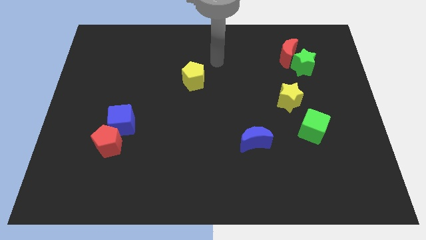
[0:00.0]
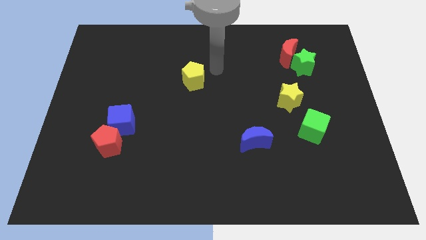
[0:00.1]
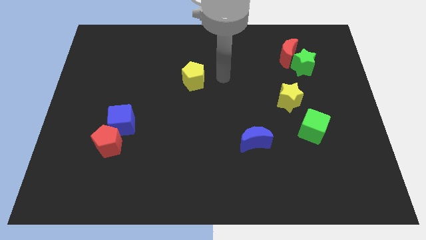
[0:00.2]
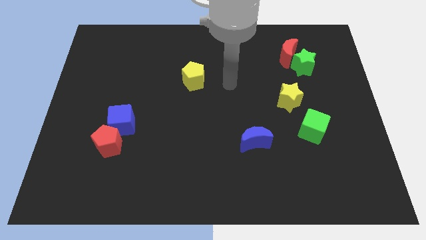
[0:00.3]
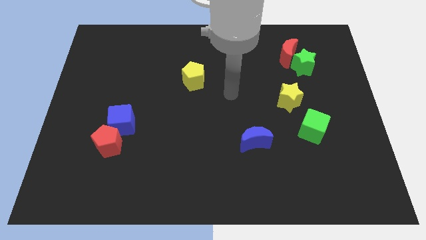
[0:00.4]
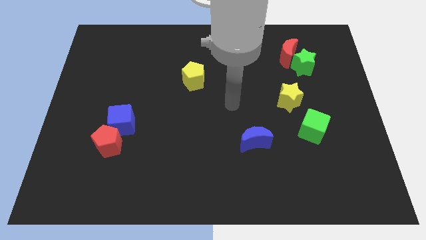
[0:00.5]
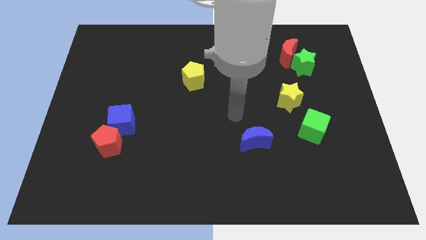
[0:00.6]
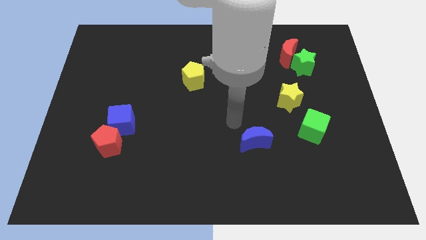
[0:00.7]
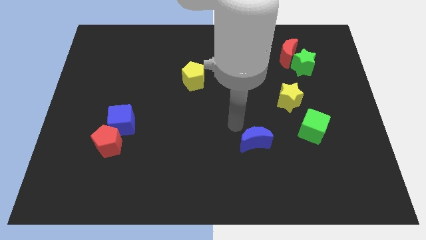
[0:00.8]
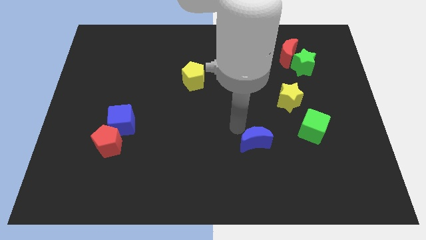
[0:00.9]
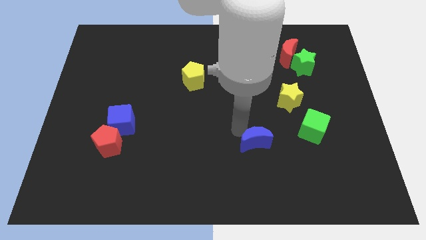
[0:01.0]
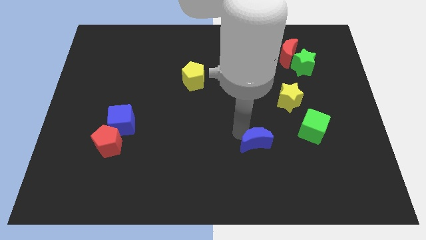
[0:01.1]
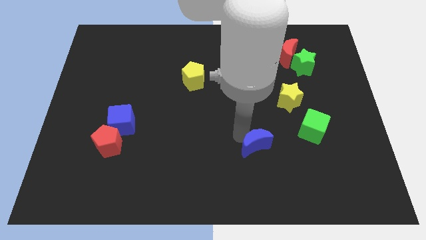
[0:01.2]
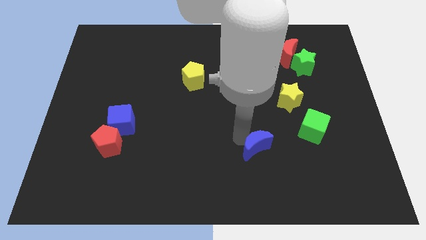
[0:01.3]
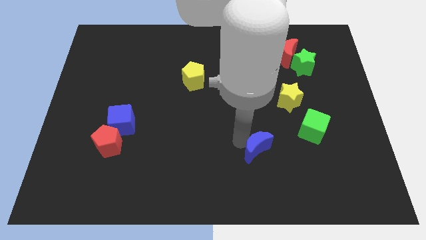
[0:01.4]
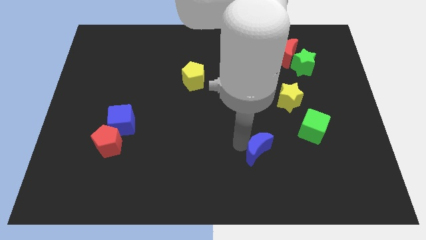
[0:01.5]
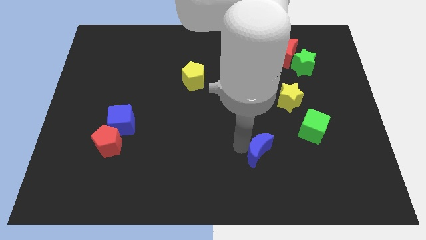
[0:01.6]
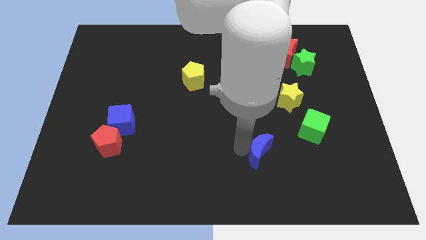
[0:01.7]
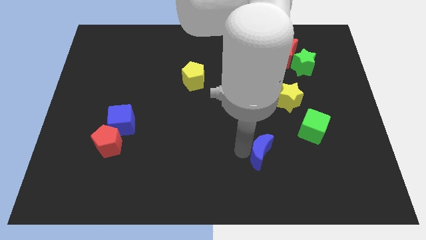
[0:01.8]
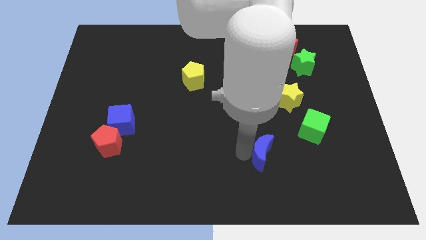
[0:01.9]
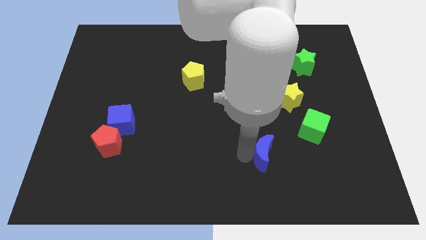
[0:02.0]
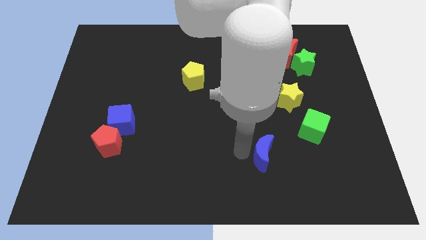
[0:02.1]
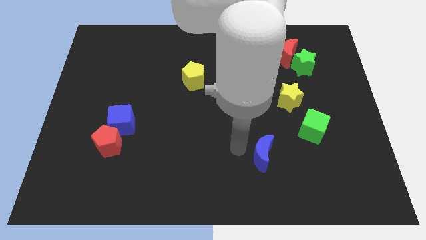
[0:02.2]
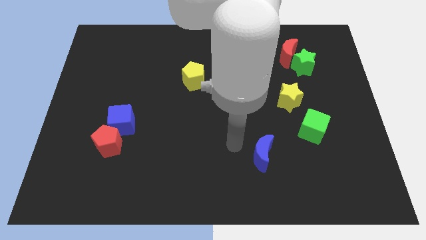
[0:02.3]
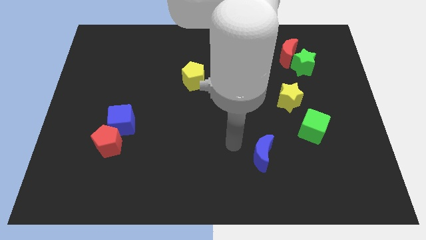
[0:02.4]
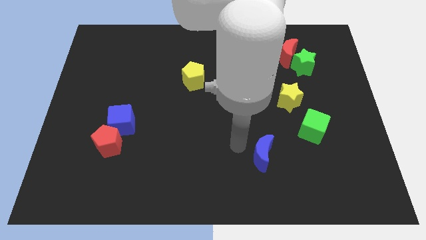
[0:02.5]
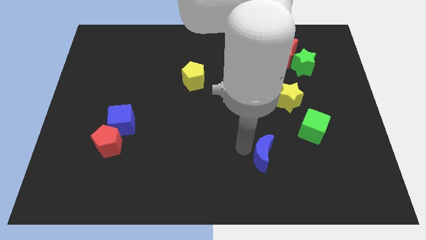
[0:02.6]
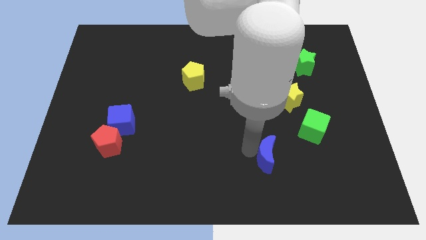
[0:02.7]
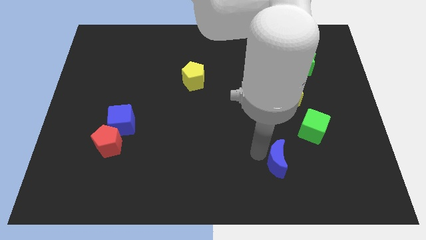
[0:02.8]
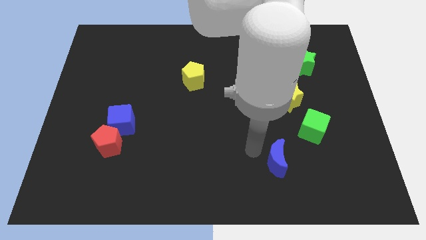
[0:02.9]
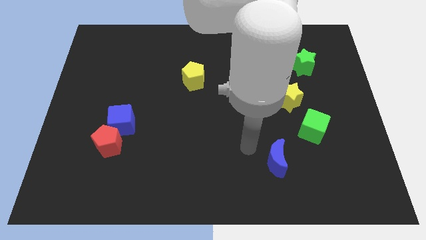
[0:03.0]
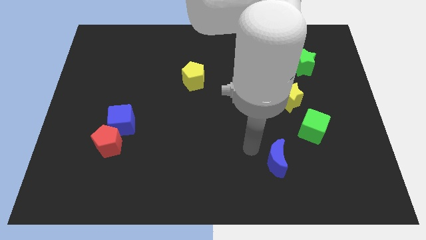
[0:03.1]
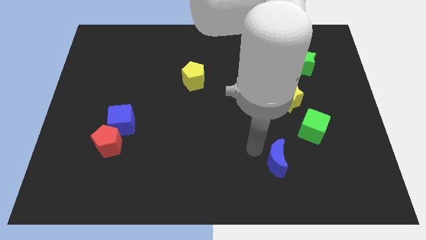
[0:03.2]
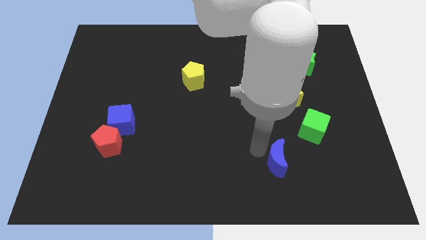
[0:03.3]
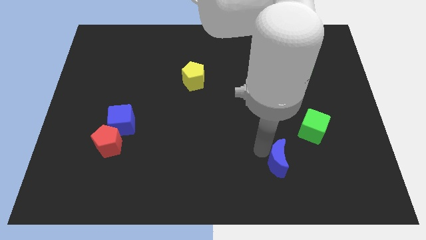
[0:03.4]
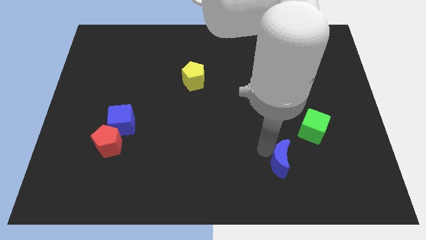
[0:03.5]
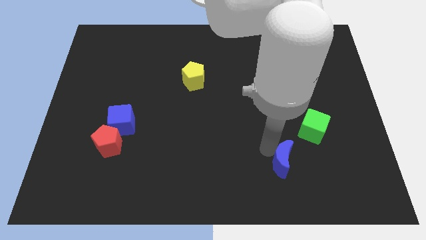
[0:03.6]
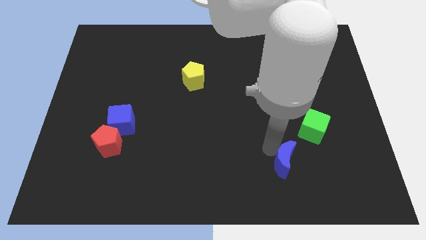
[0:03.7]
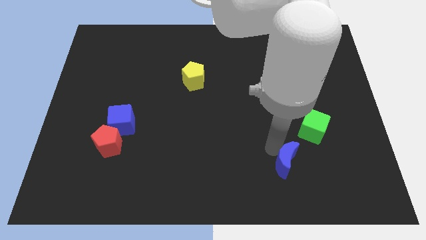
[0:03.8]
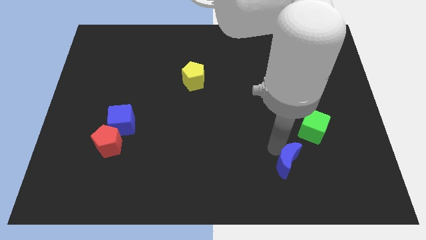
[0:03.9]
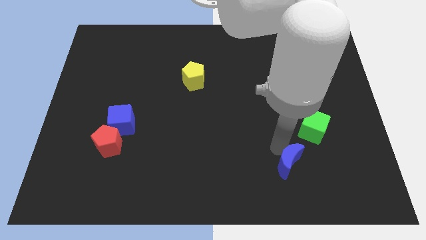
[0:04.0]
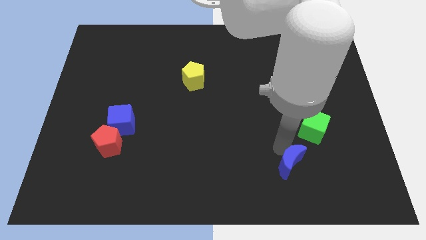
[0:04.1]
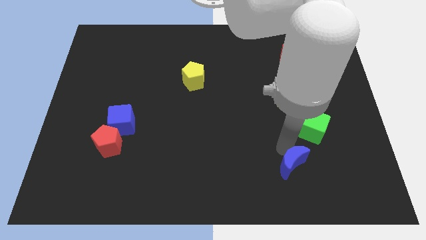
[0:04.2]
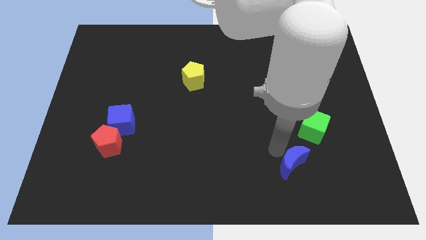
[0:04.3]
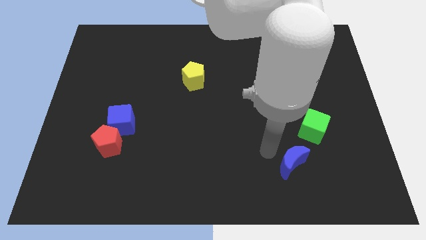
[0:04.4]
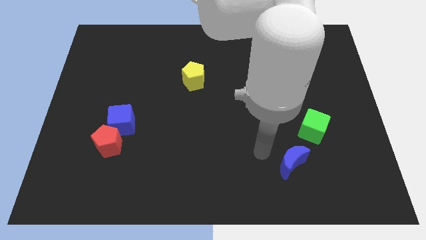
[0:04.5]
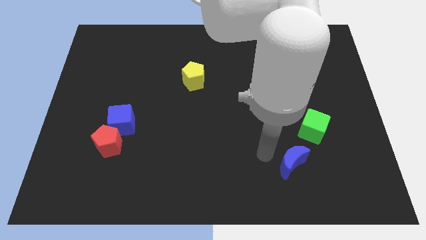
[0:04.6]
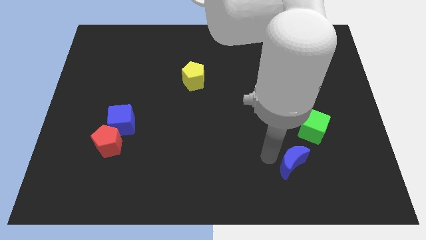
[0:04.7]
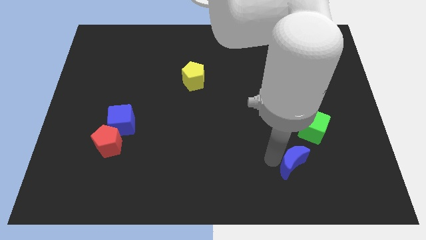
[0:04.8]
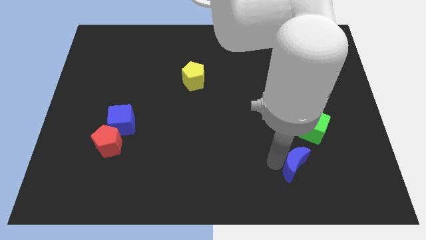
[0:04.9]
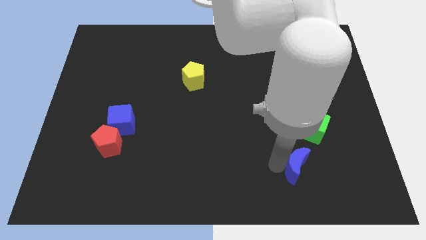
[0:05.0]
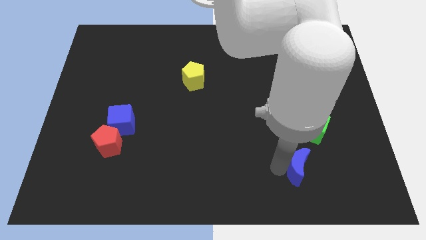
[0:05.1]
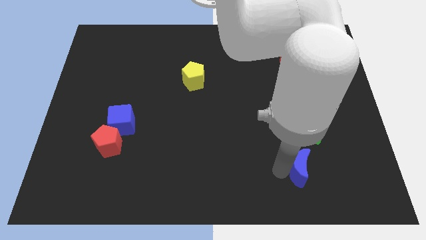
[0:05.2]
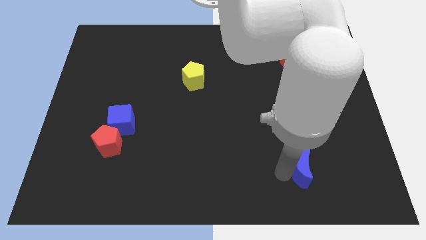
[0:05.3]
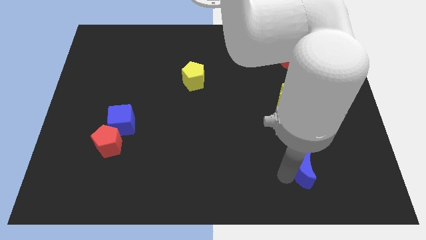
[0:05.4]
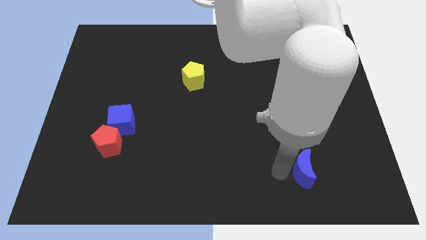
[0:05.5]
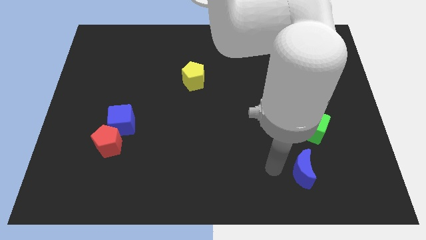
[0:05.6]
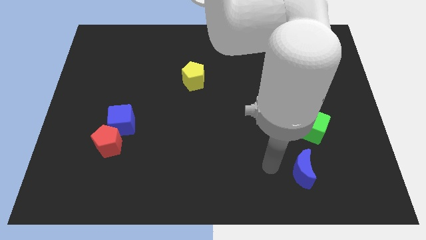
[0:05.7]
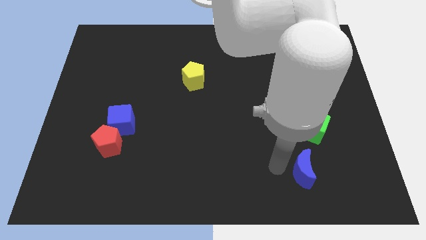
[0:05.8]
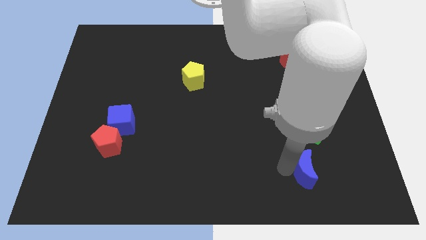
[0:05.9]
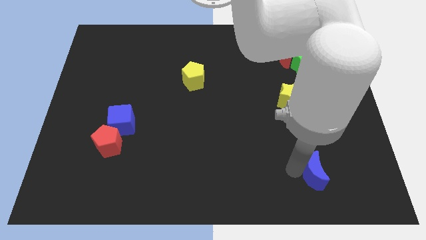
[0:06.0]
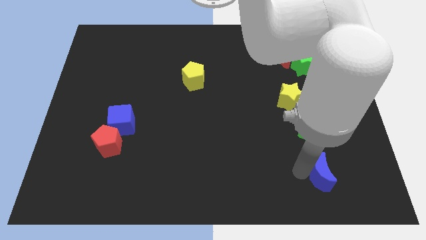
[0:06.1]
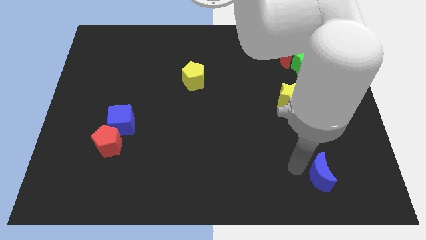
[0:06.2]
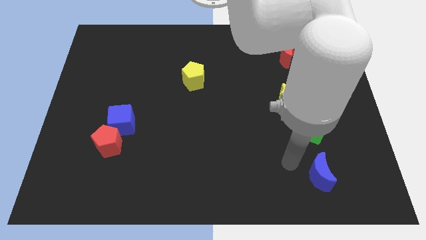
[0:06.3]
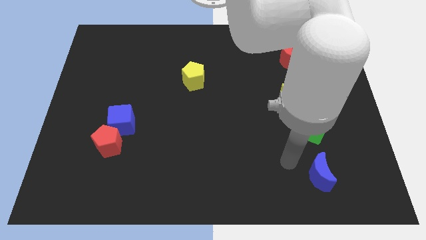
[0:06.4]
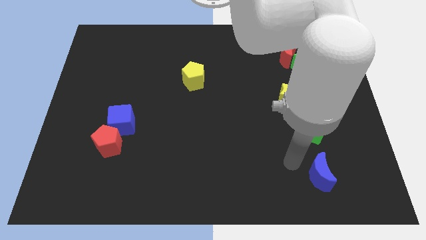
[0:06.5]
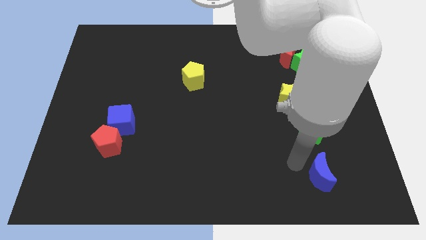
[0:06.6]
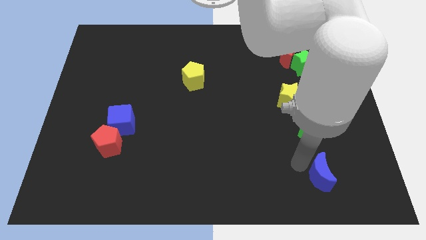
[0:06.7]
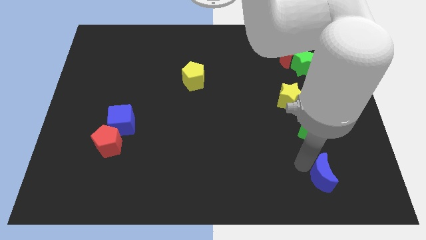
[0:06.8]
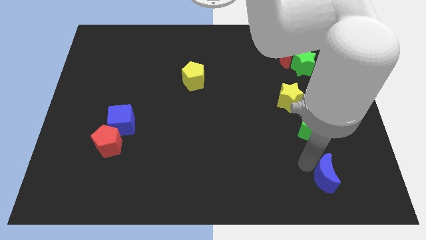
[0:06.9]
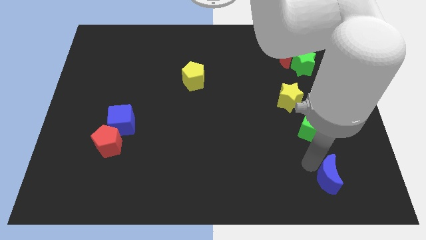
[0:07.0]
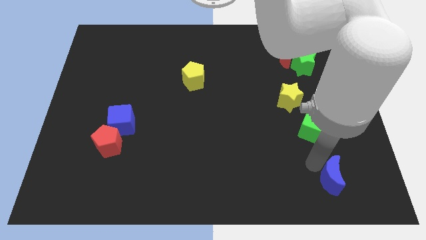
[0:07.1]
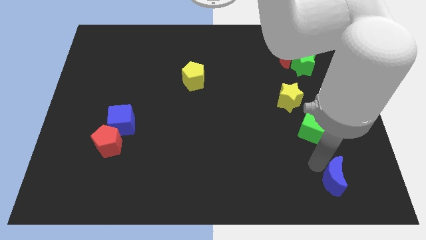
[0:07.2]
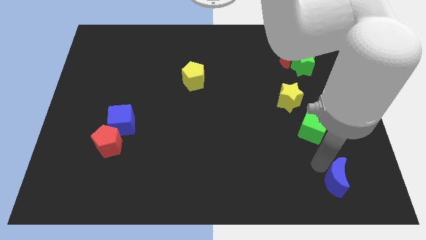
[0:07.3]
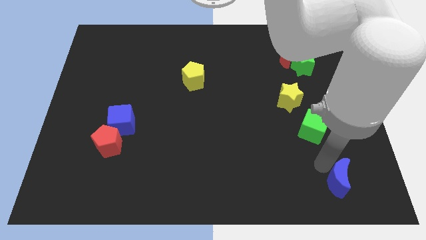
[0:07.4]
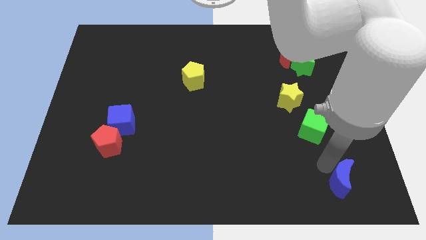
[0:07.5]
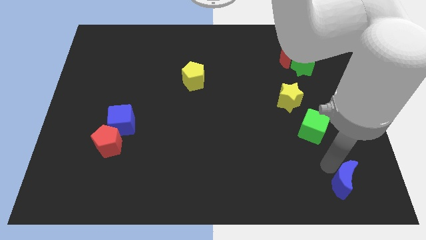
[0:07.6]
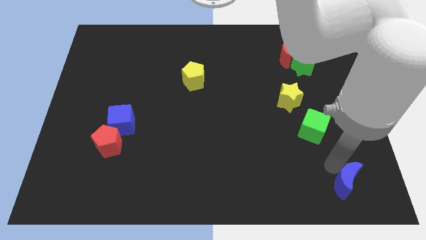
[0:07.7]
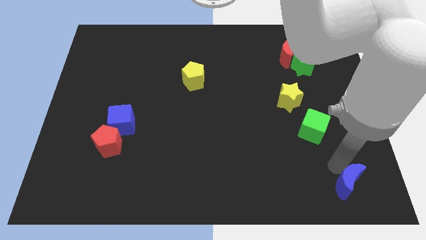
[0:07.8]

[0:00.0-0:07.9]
move the blue moon to the lower right corner
